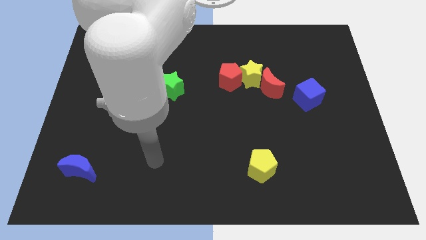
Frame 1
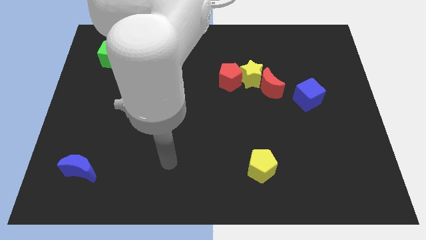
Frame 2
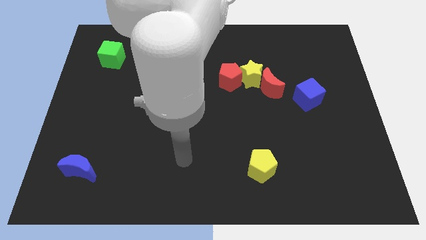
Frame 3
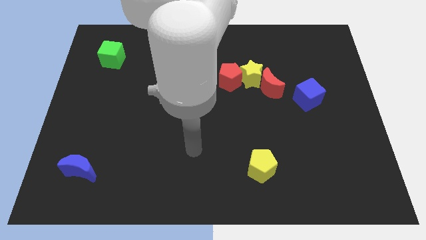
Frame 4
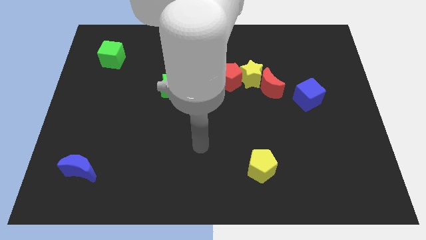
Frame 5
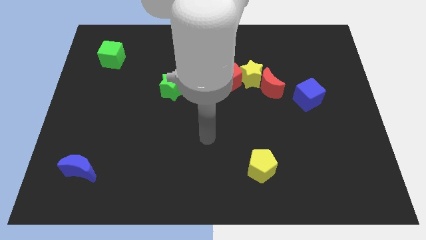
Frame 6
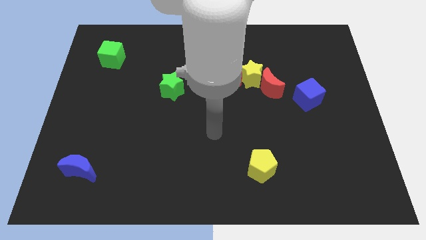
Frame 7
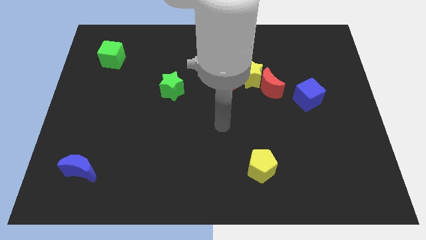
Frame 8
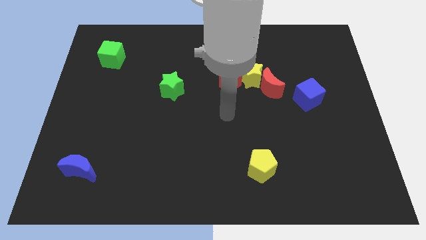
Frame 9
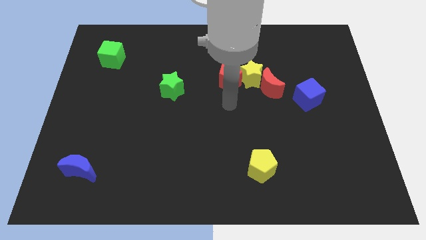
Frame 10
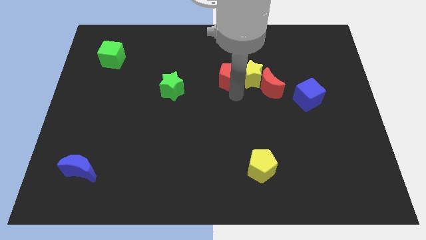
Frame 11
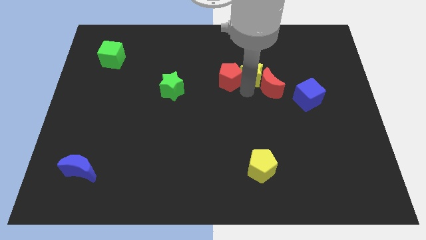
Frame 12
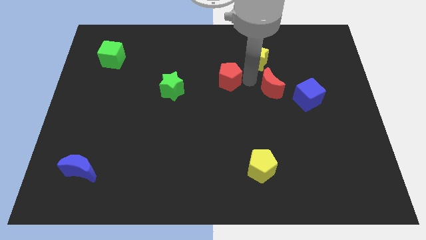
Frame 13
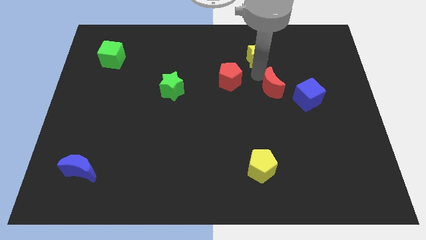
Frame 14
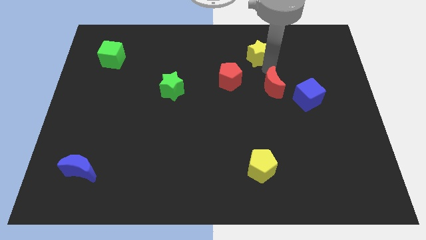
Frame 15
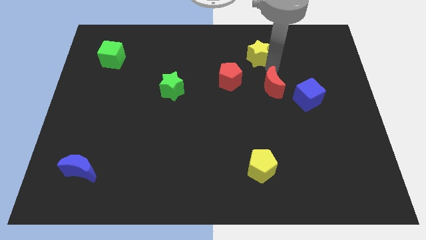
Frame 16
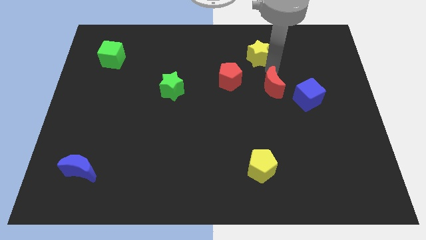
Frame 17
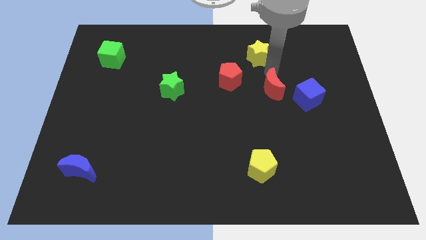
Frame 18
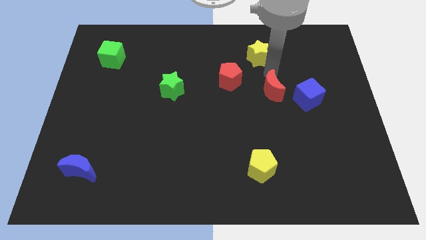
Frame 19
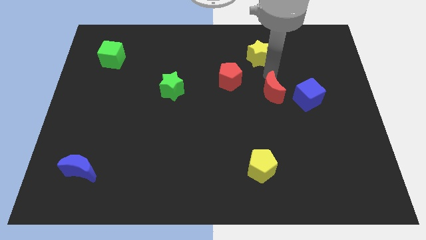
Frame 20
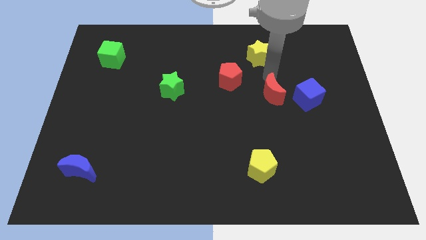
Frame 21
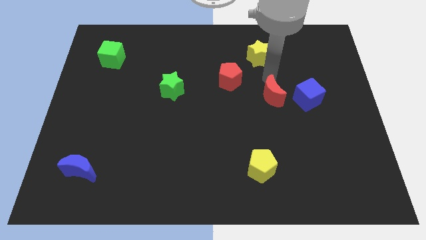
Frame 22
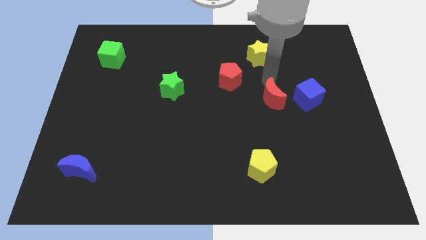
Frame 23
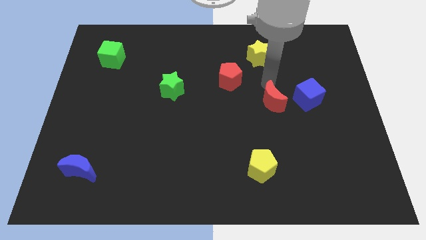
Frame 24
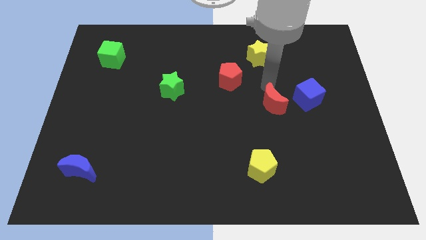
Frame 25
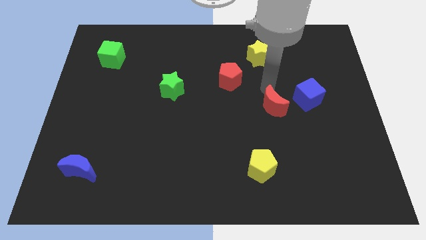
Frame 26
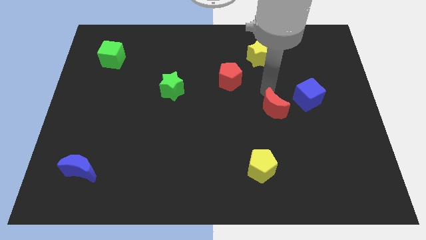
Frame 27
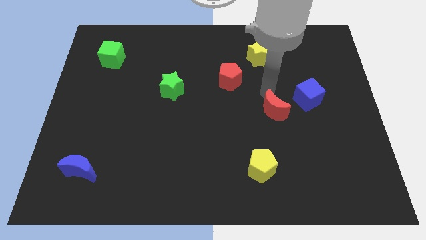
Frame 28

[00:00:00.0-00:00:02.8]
slightly slide the red moon downwards

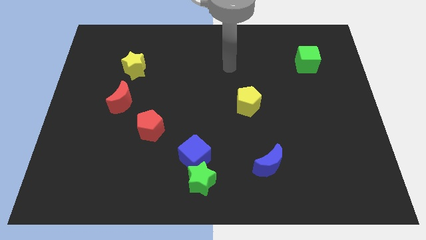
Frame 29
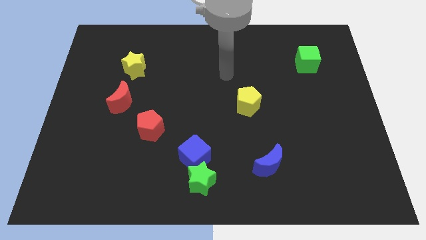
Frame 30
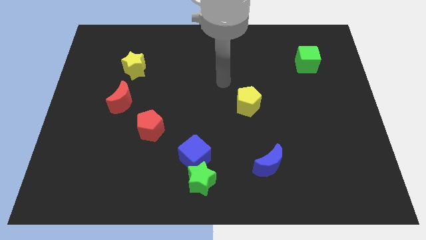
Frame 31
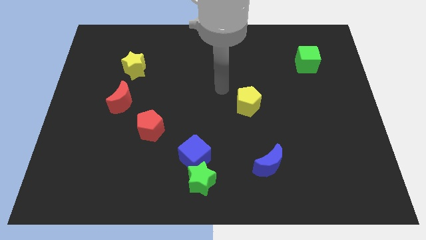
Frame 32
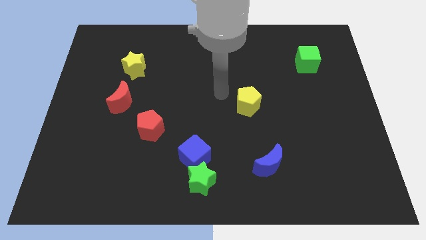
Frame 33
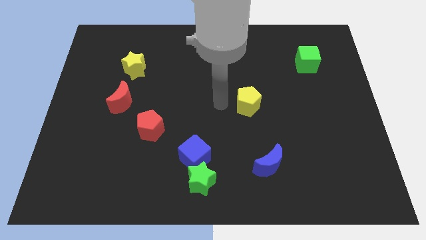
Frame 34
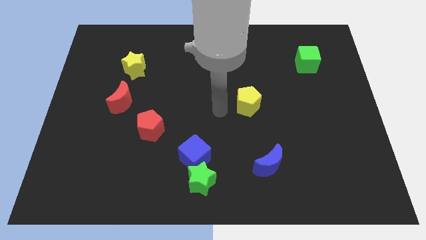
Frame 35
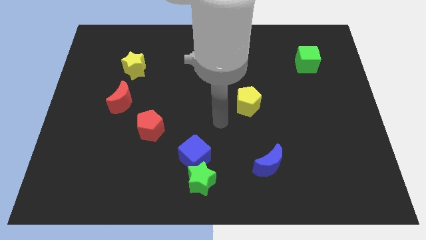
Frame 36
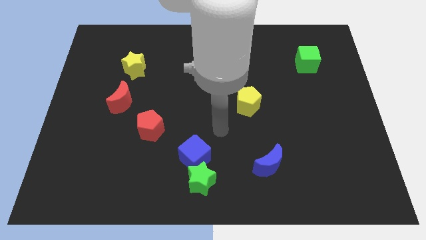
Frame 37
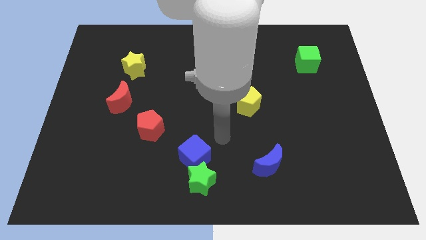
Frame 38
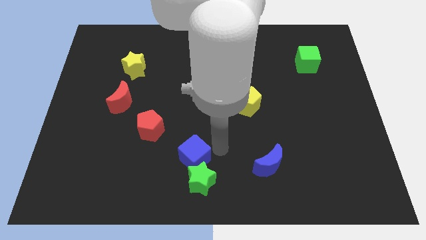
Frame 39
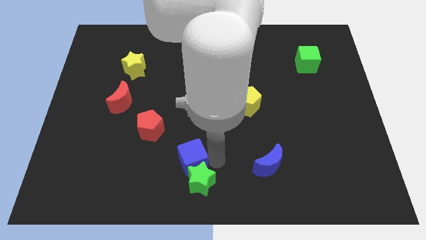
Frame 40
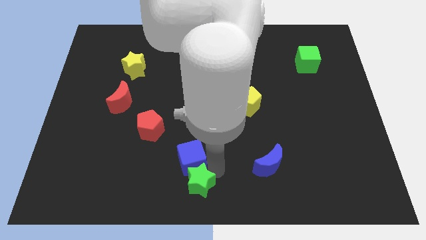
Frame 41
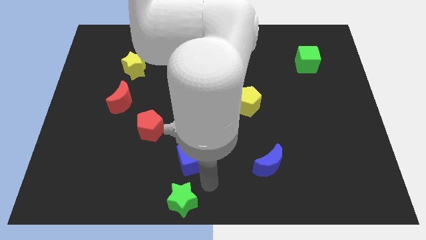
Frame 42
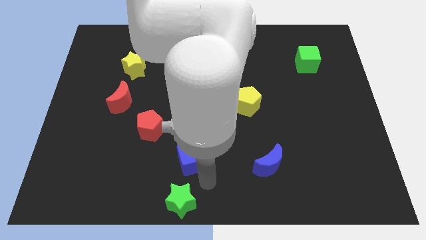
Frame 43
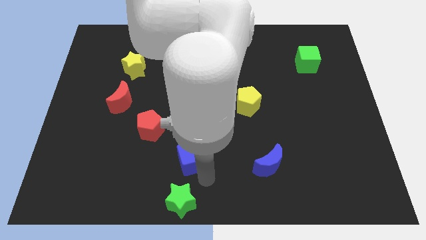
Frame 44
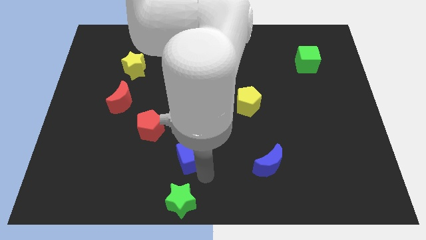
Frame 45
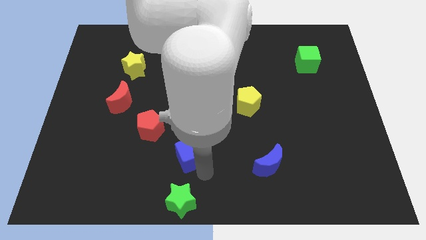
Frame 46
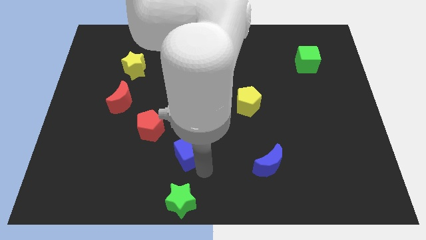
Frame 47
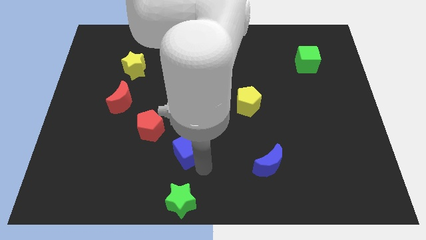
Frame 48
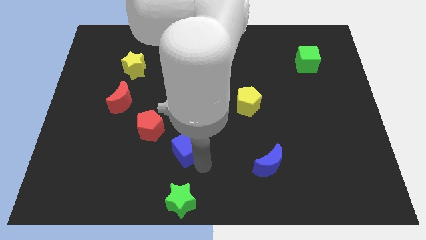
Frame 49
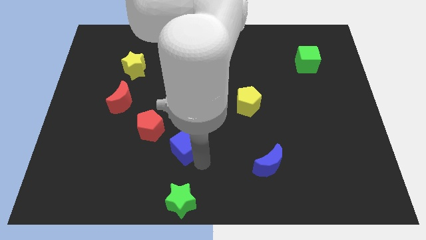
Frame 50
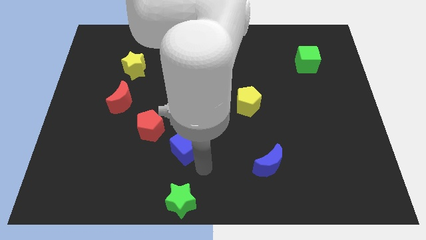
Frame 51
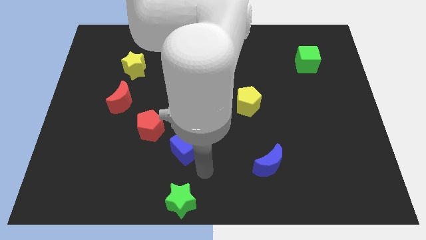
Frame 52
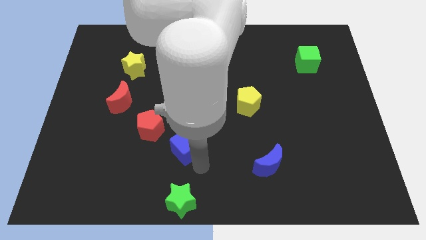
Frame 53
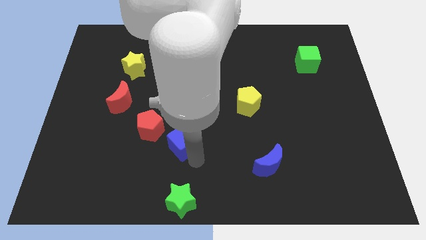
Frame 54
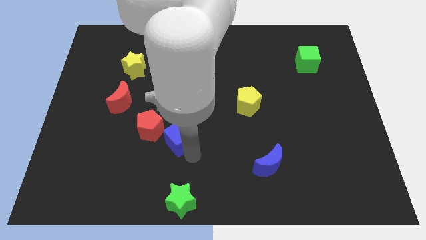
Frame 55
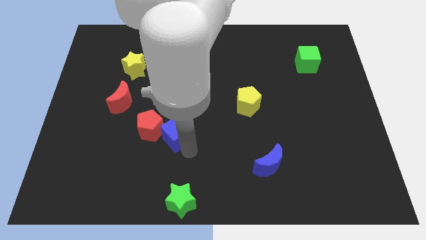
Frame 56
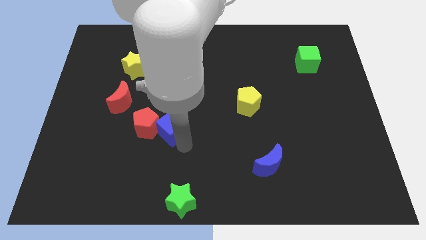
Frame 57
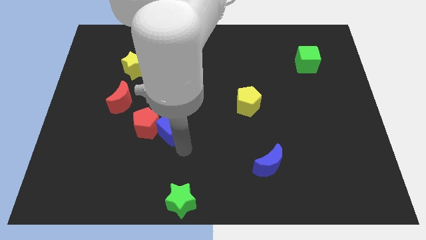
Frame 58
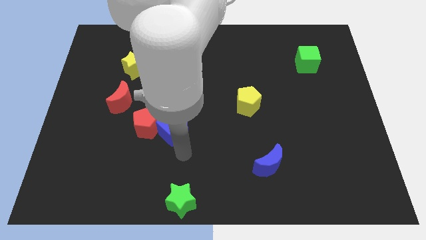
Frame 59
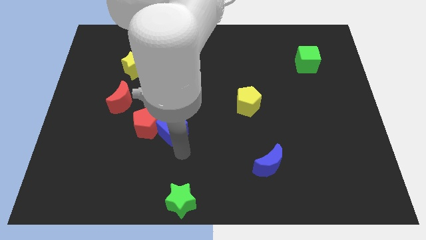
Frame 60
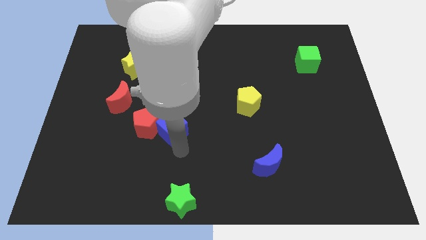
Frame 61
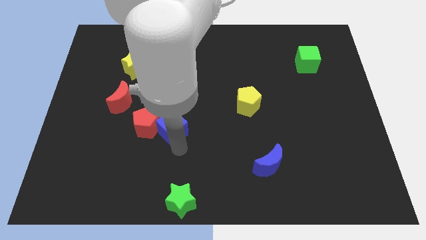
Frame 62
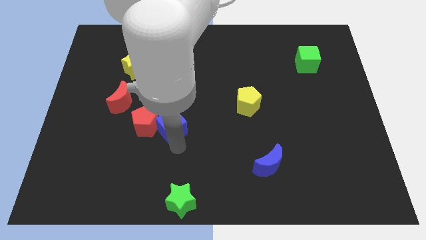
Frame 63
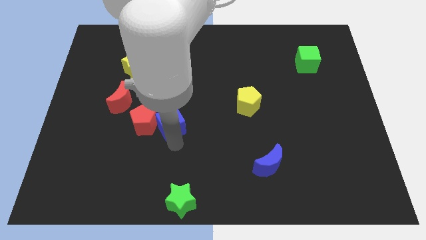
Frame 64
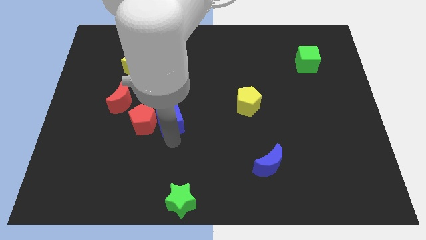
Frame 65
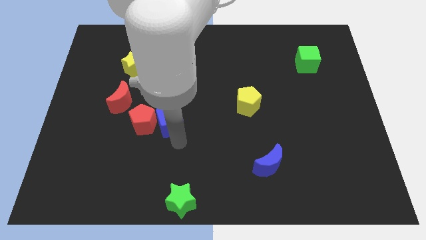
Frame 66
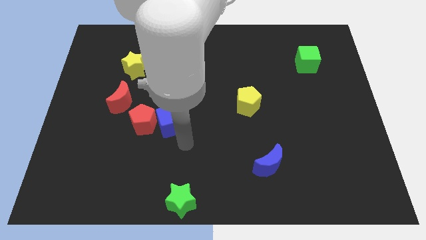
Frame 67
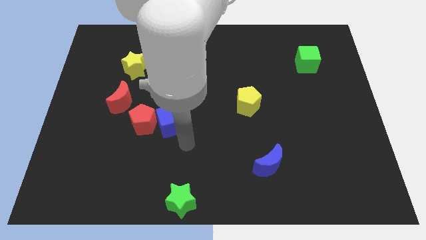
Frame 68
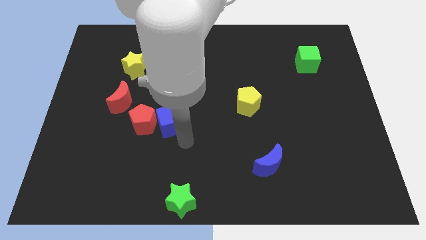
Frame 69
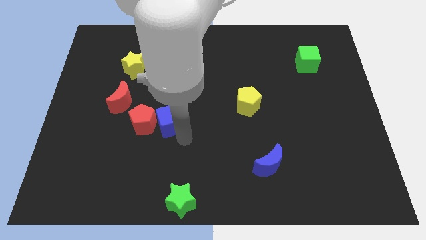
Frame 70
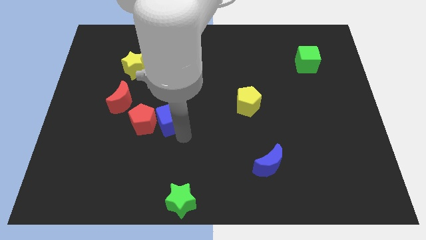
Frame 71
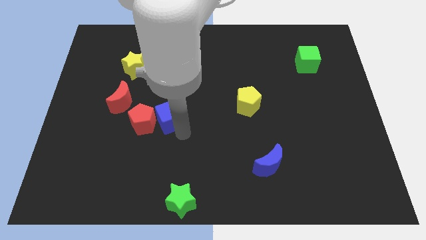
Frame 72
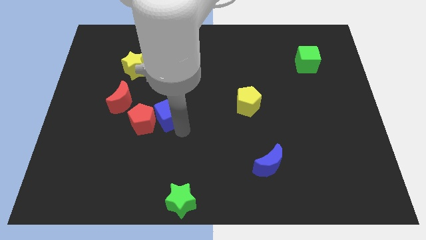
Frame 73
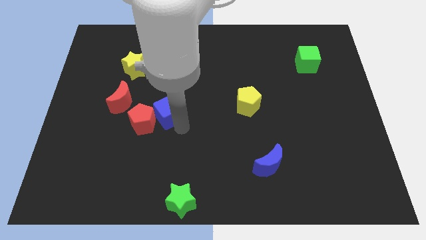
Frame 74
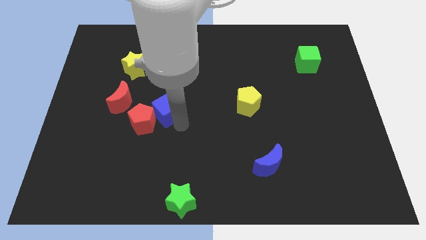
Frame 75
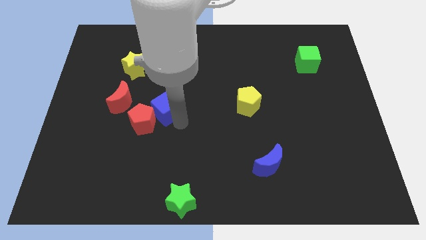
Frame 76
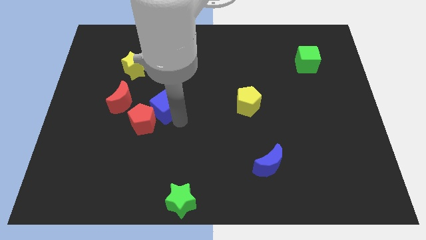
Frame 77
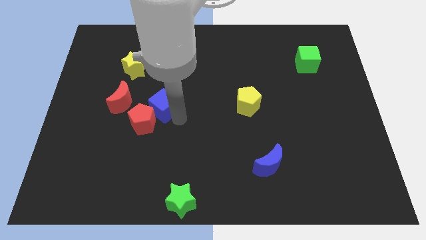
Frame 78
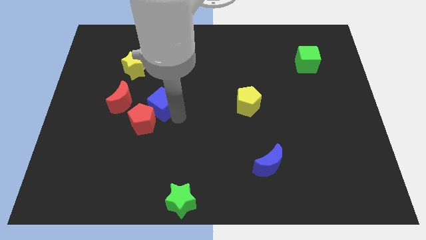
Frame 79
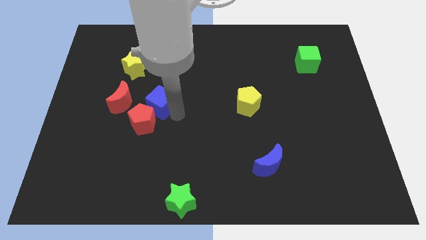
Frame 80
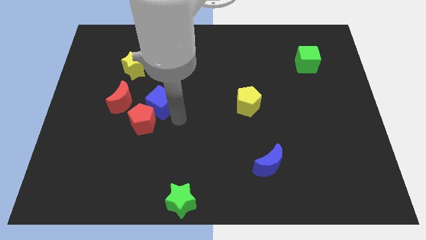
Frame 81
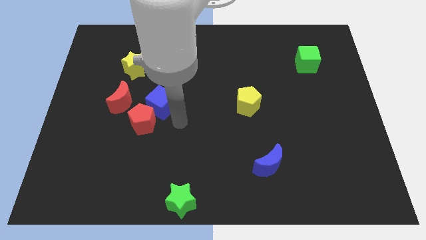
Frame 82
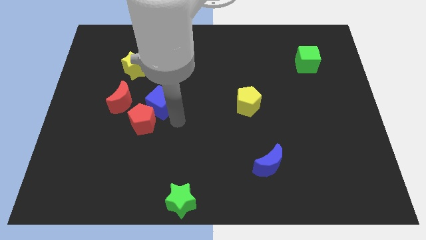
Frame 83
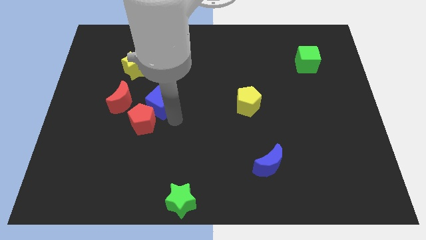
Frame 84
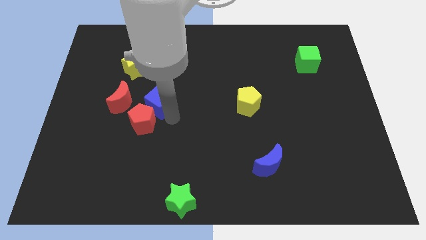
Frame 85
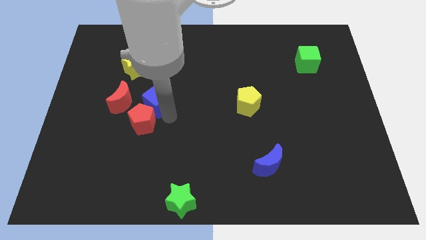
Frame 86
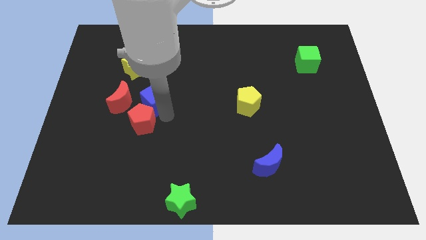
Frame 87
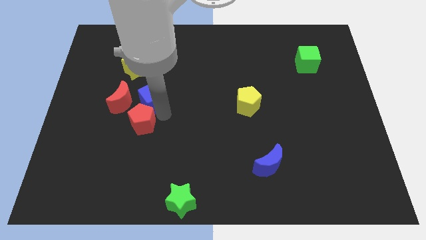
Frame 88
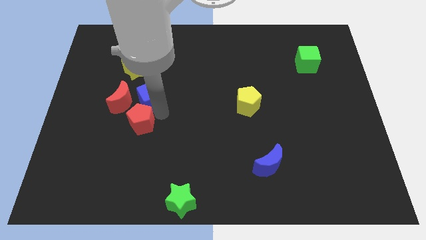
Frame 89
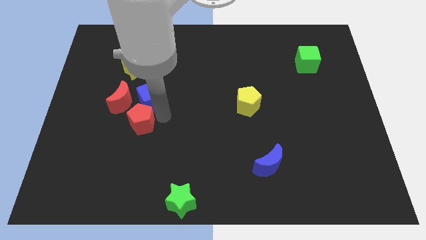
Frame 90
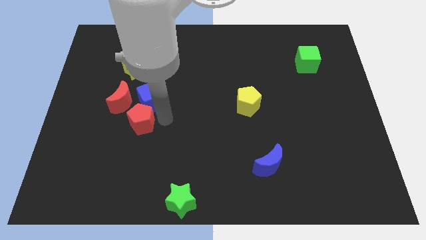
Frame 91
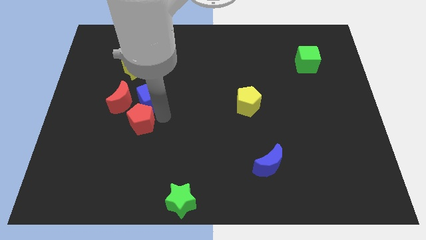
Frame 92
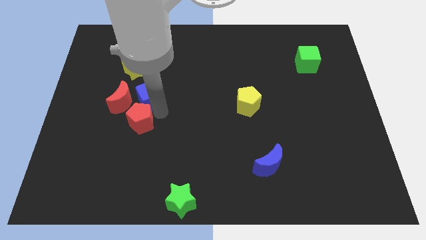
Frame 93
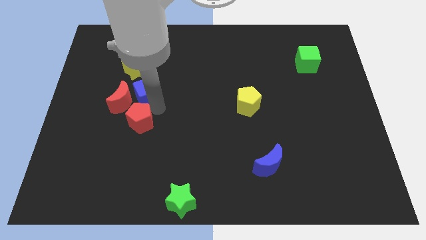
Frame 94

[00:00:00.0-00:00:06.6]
push the blue cube up and to the left
